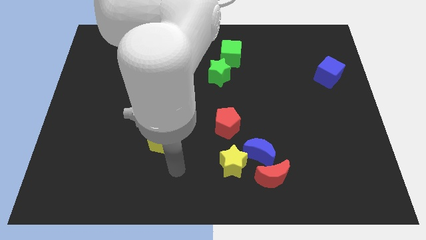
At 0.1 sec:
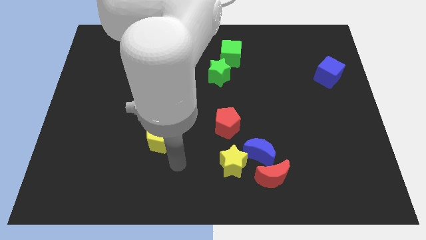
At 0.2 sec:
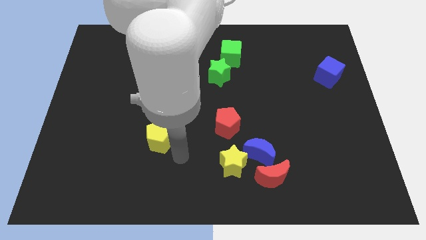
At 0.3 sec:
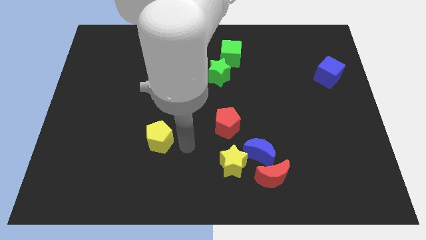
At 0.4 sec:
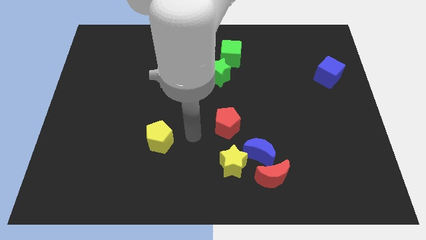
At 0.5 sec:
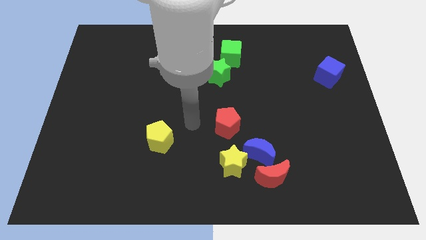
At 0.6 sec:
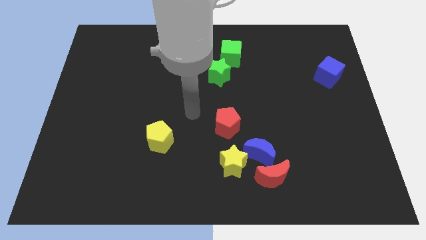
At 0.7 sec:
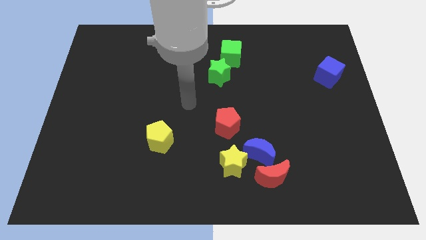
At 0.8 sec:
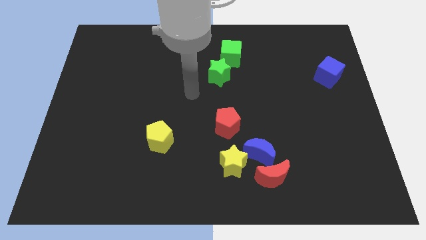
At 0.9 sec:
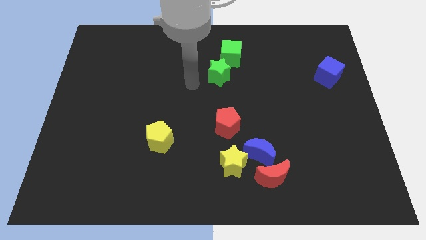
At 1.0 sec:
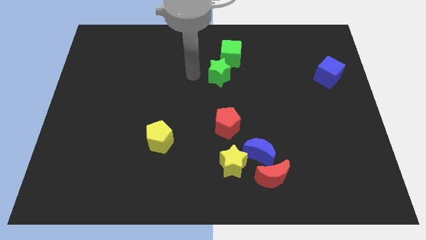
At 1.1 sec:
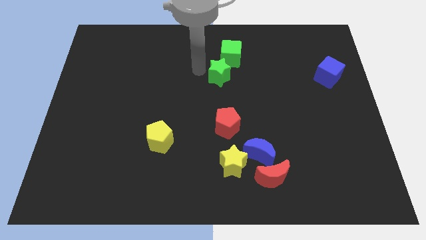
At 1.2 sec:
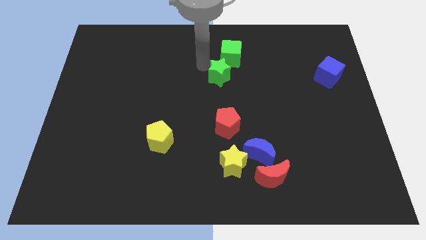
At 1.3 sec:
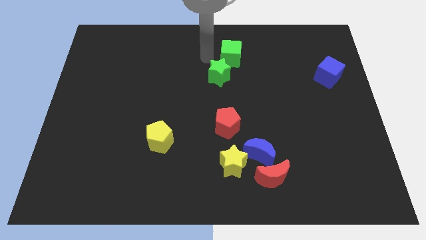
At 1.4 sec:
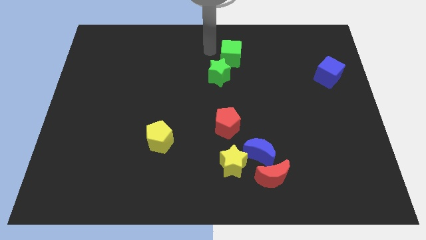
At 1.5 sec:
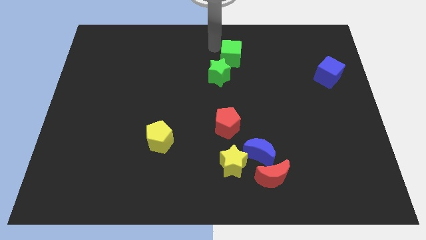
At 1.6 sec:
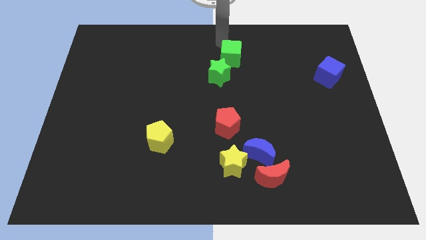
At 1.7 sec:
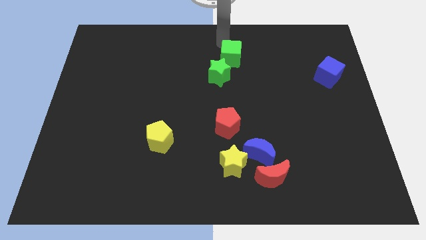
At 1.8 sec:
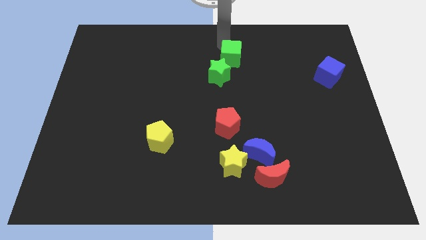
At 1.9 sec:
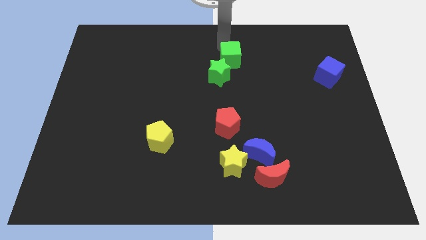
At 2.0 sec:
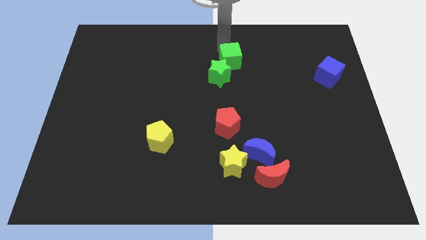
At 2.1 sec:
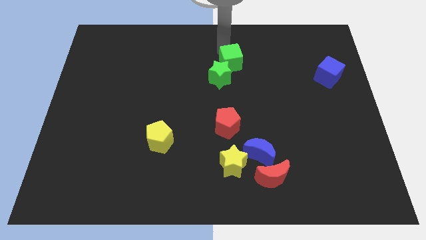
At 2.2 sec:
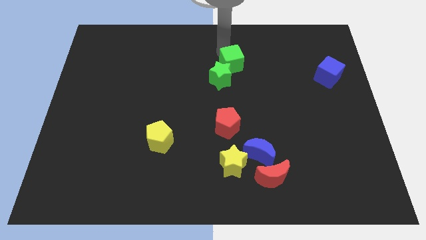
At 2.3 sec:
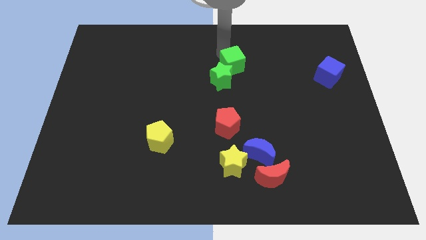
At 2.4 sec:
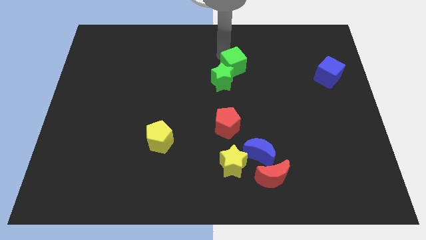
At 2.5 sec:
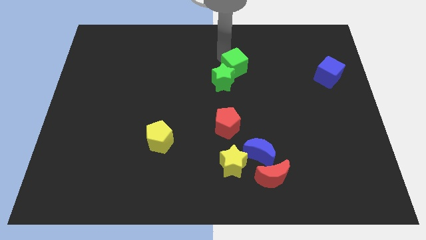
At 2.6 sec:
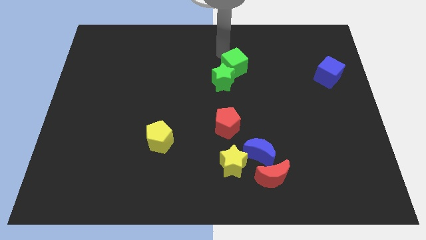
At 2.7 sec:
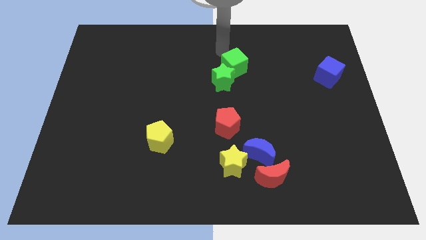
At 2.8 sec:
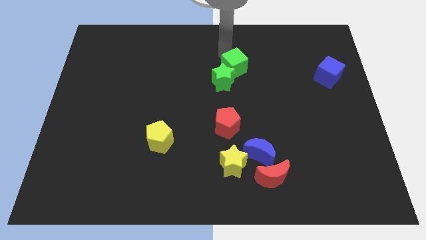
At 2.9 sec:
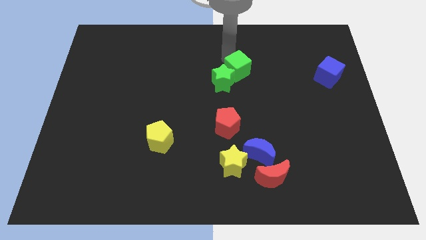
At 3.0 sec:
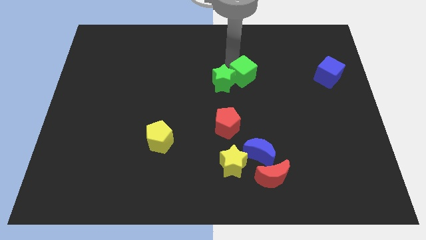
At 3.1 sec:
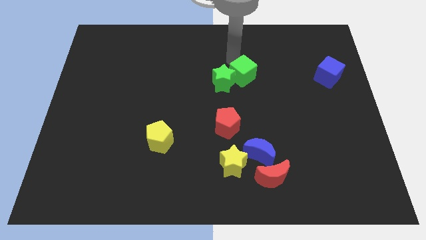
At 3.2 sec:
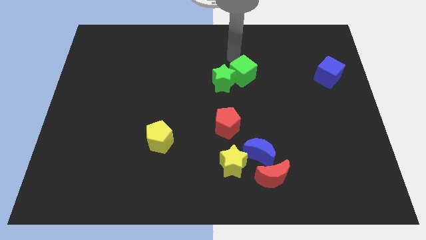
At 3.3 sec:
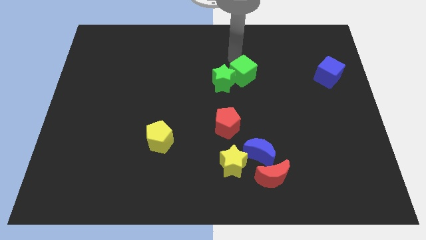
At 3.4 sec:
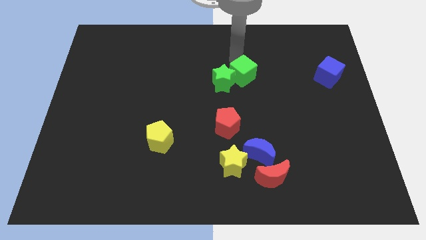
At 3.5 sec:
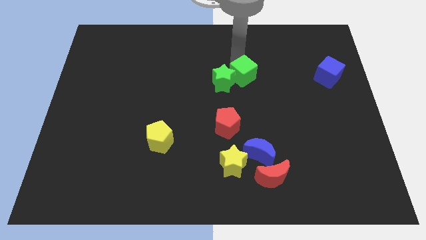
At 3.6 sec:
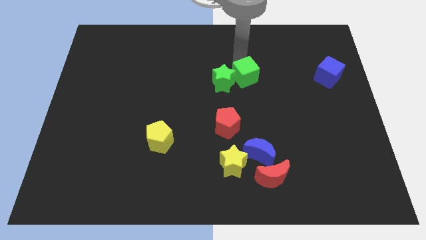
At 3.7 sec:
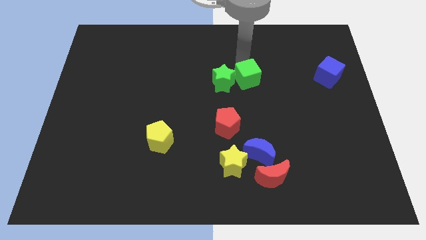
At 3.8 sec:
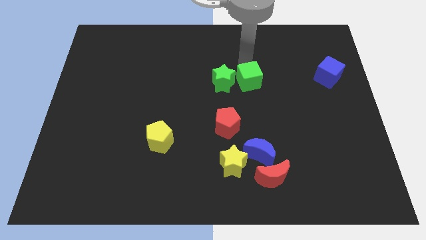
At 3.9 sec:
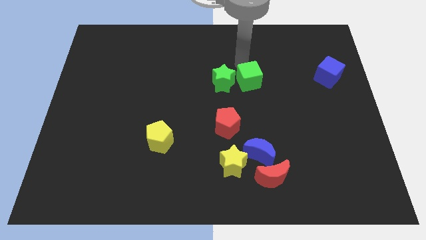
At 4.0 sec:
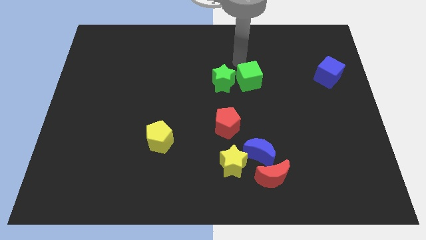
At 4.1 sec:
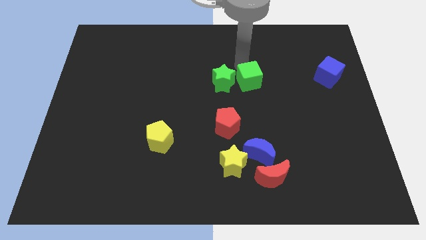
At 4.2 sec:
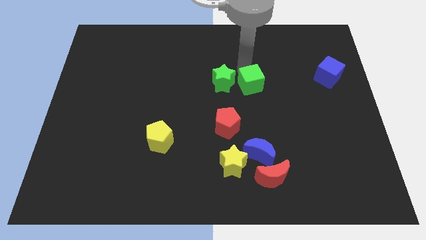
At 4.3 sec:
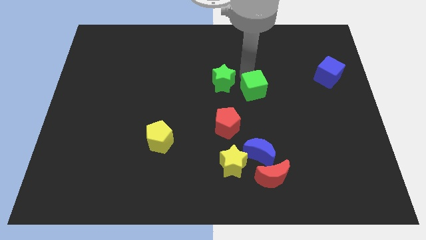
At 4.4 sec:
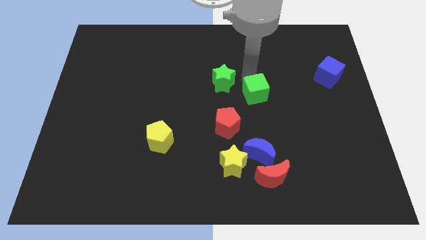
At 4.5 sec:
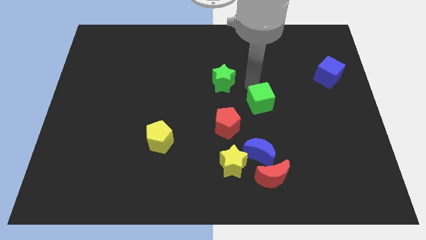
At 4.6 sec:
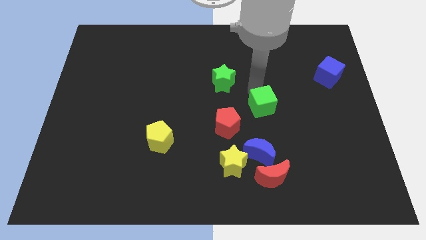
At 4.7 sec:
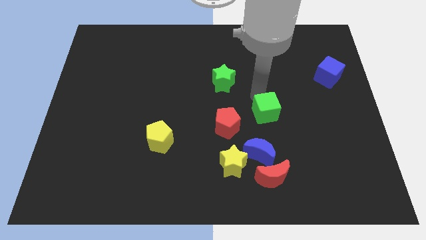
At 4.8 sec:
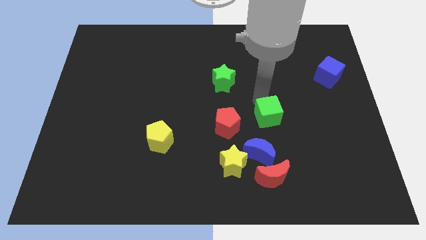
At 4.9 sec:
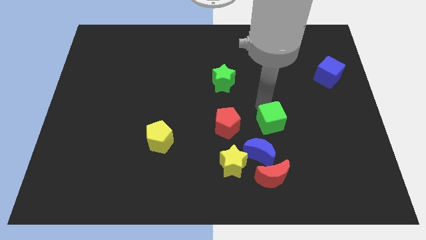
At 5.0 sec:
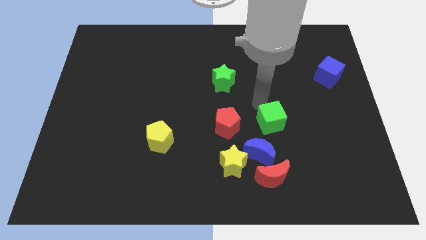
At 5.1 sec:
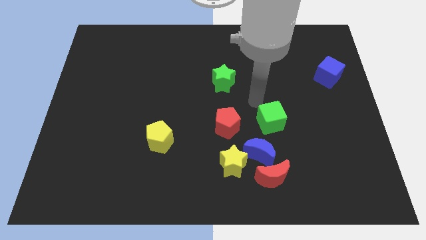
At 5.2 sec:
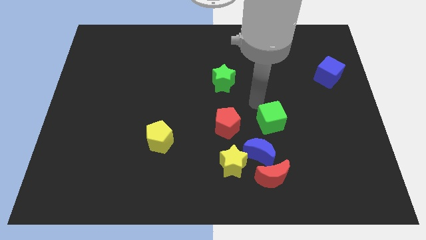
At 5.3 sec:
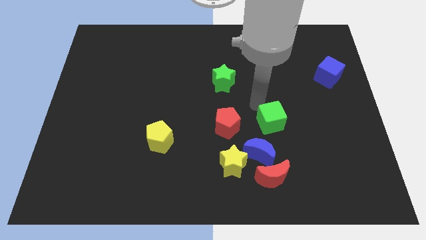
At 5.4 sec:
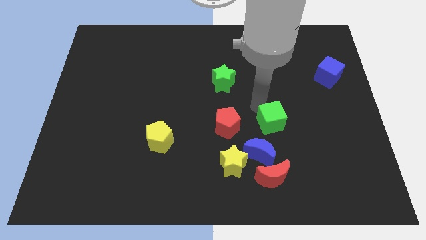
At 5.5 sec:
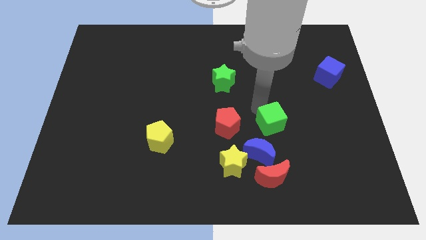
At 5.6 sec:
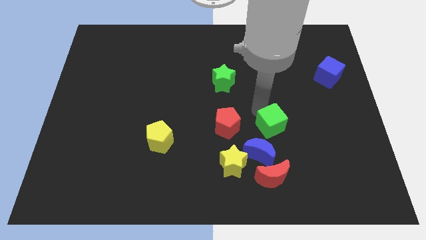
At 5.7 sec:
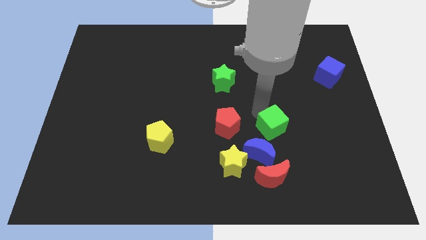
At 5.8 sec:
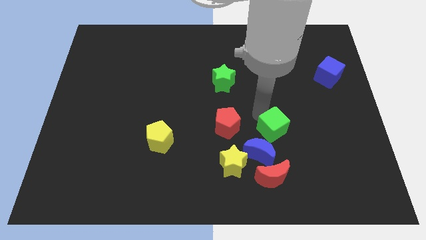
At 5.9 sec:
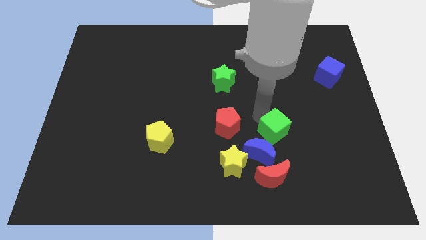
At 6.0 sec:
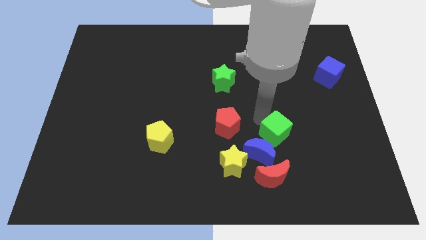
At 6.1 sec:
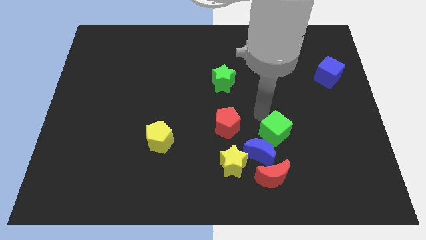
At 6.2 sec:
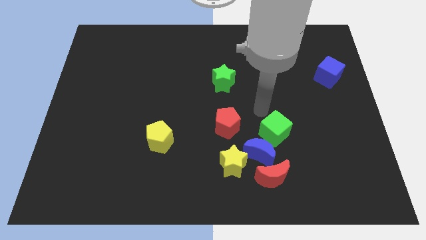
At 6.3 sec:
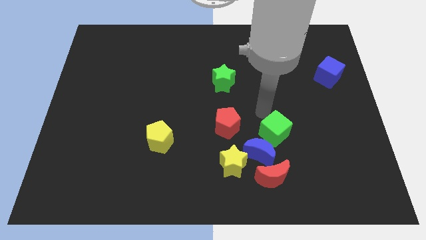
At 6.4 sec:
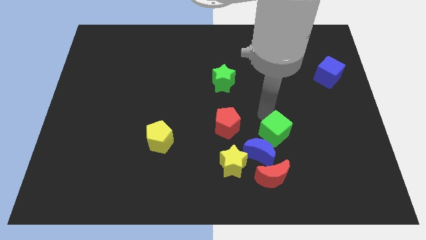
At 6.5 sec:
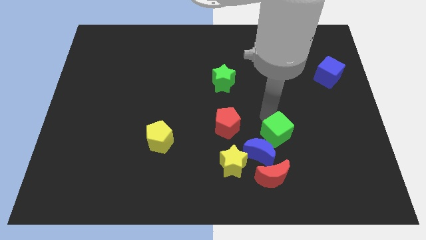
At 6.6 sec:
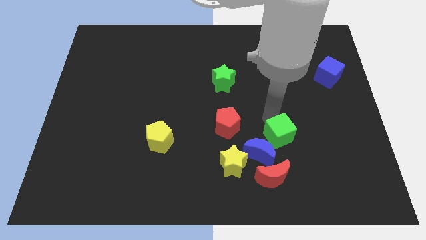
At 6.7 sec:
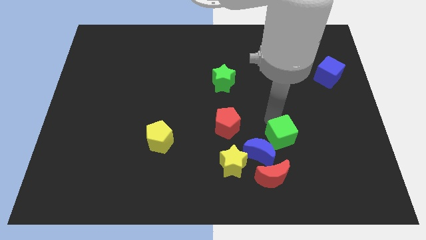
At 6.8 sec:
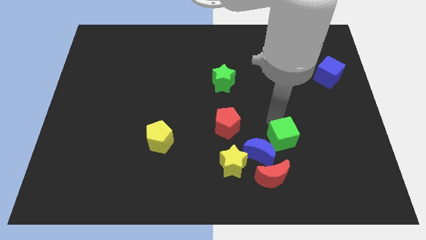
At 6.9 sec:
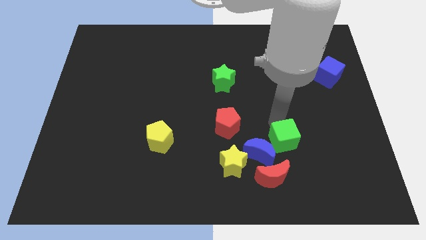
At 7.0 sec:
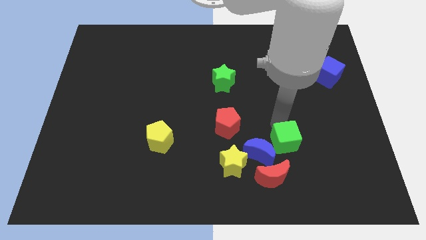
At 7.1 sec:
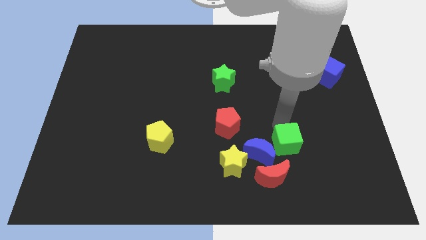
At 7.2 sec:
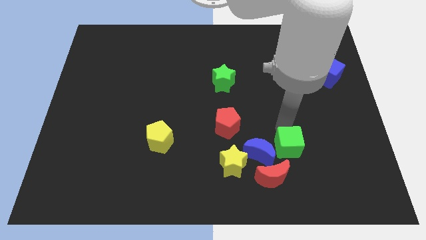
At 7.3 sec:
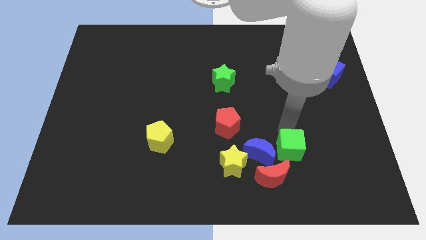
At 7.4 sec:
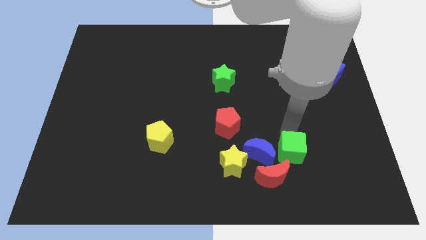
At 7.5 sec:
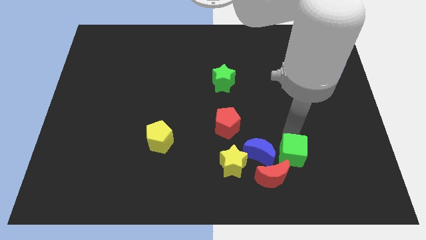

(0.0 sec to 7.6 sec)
move the green cube to the bottom right side of the blue moon

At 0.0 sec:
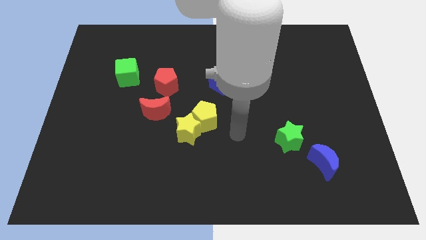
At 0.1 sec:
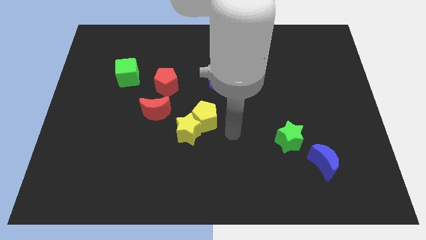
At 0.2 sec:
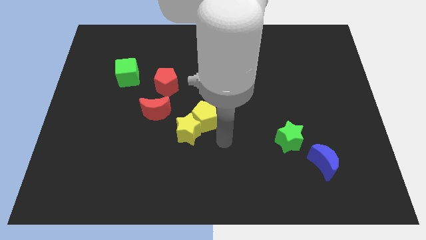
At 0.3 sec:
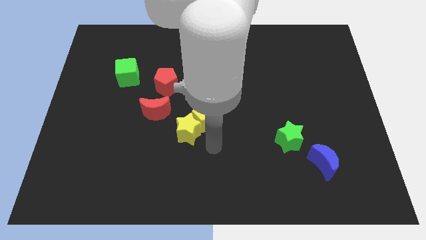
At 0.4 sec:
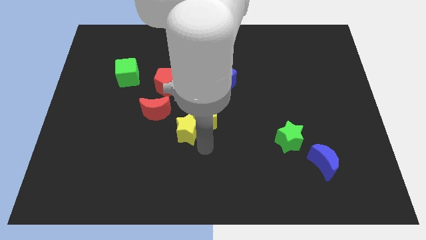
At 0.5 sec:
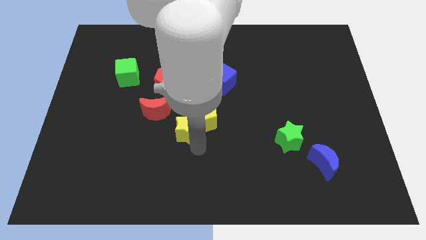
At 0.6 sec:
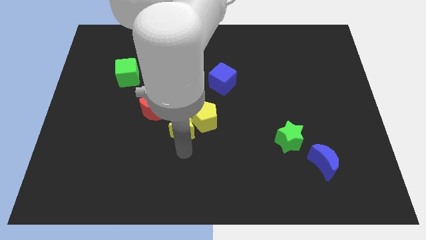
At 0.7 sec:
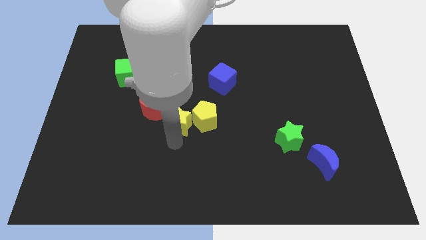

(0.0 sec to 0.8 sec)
put the yellow star to the right of the red moon

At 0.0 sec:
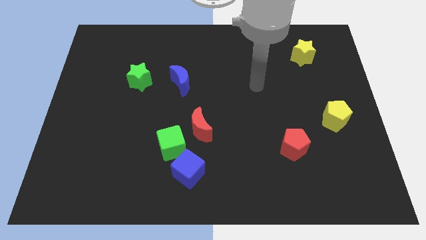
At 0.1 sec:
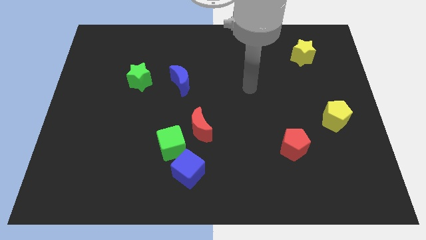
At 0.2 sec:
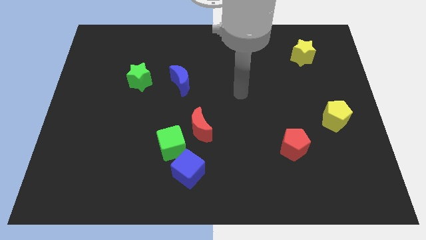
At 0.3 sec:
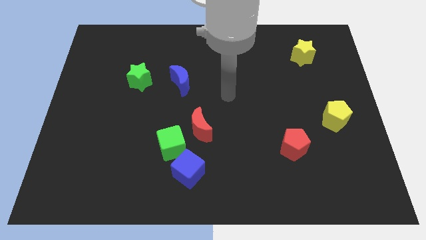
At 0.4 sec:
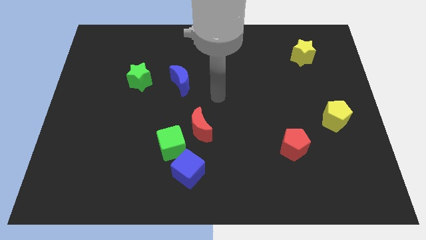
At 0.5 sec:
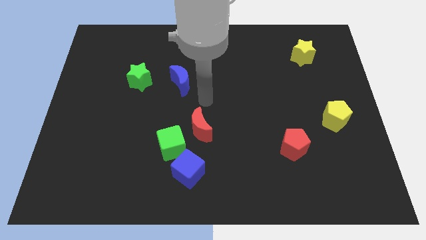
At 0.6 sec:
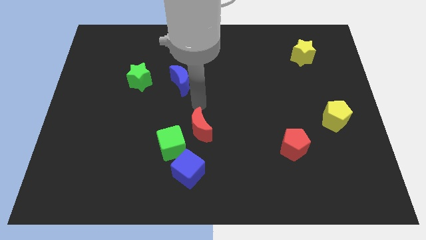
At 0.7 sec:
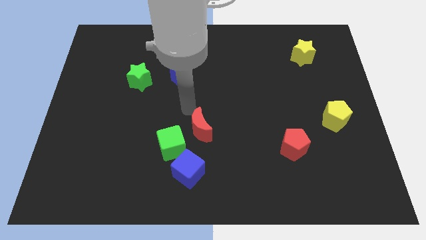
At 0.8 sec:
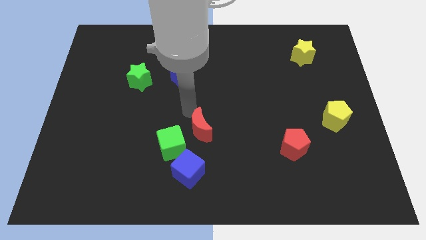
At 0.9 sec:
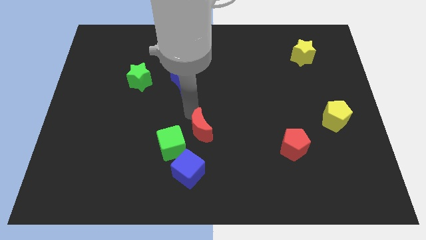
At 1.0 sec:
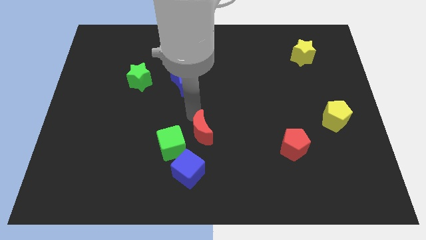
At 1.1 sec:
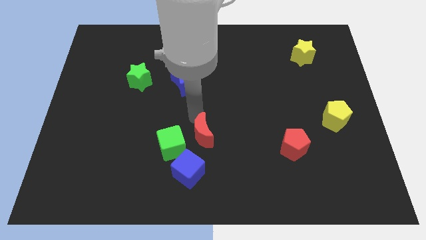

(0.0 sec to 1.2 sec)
push the red moon to the top right side of the blue cube
